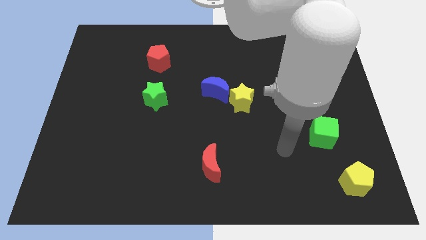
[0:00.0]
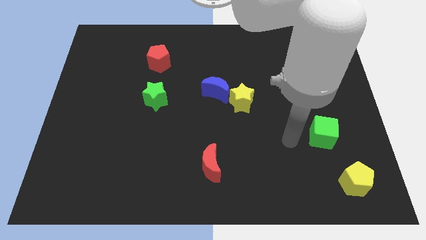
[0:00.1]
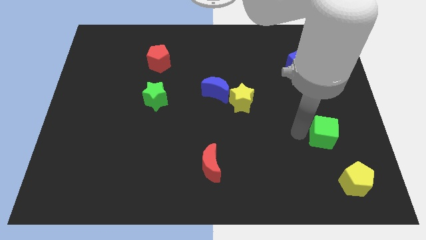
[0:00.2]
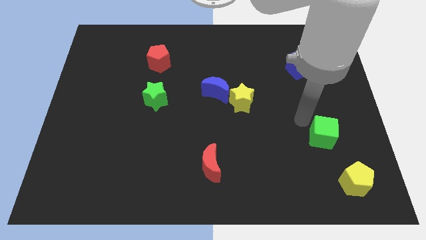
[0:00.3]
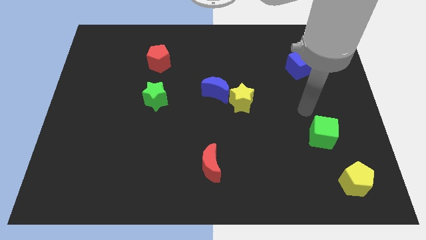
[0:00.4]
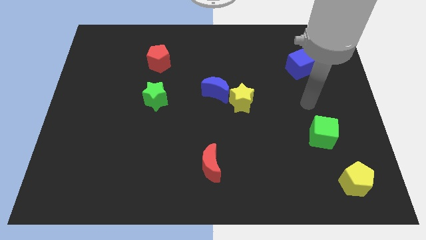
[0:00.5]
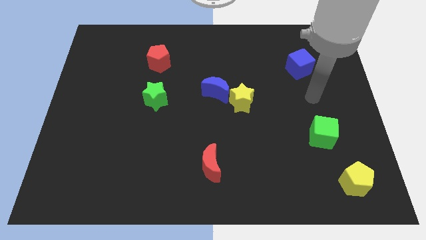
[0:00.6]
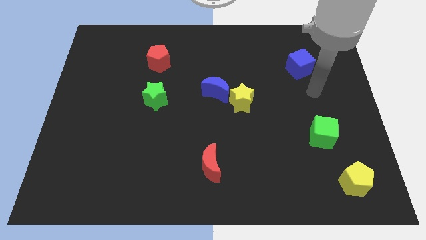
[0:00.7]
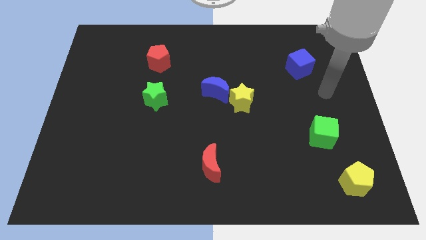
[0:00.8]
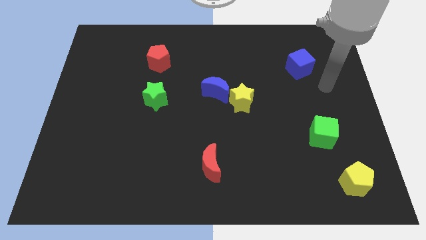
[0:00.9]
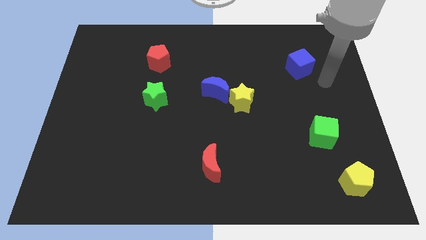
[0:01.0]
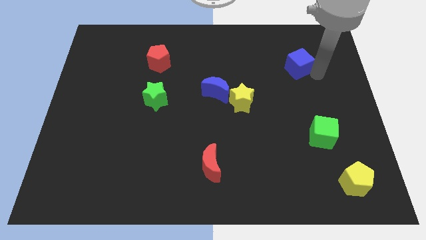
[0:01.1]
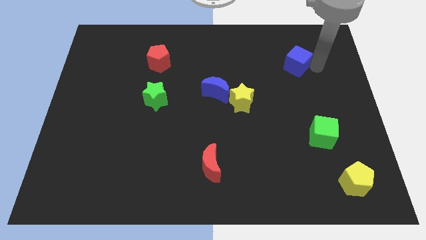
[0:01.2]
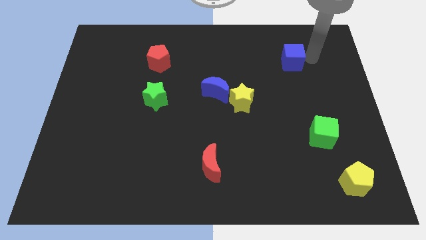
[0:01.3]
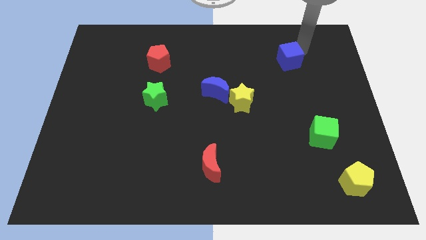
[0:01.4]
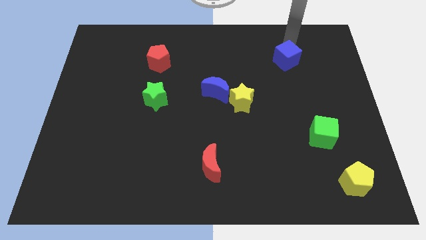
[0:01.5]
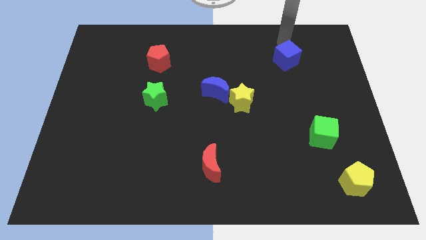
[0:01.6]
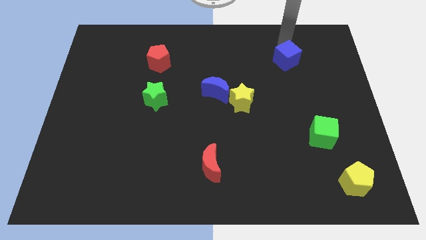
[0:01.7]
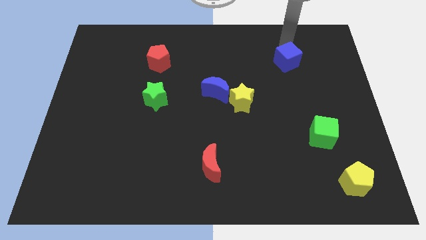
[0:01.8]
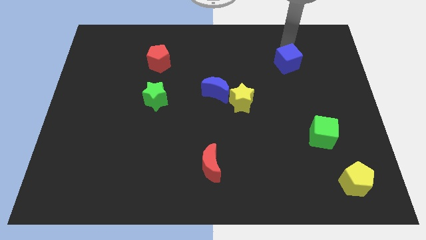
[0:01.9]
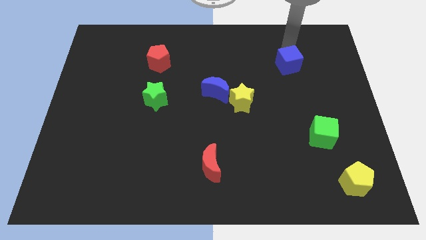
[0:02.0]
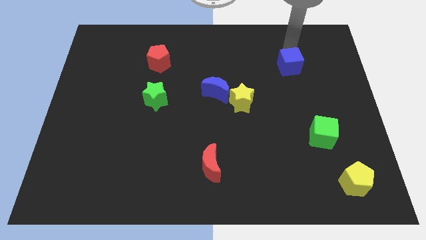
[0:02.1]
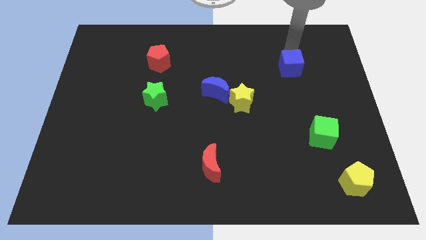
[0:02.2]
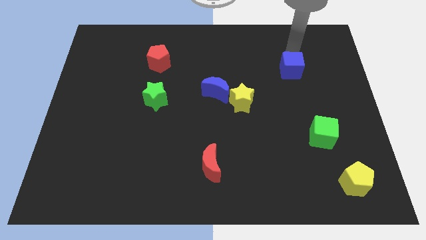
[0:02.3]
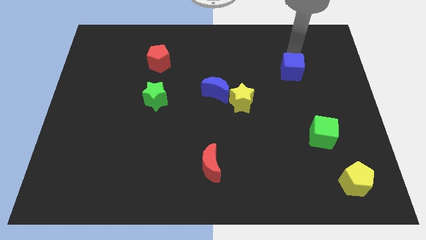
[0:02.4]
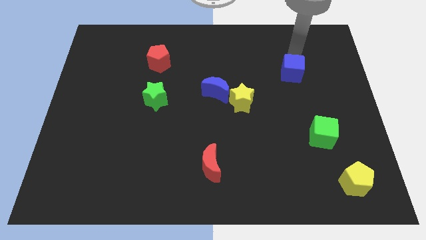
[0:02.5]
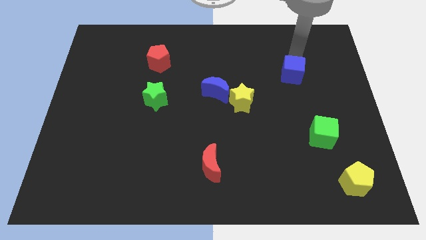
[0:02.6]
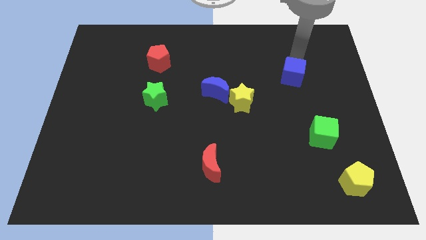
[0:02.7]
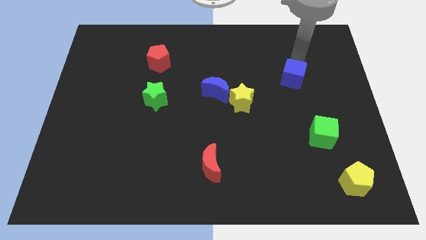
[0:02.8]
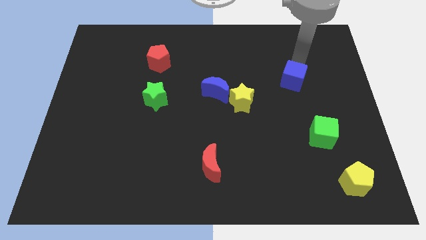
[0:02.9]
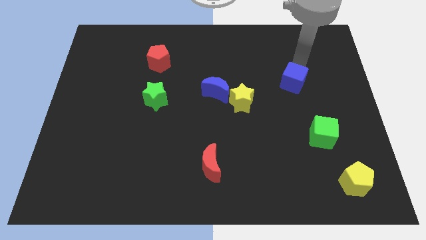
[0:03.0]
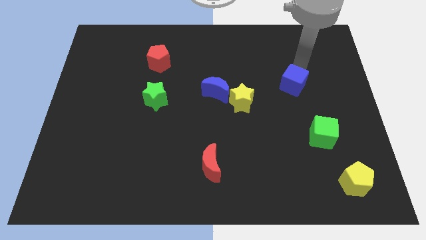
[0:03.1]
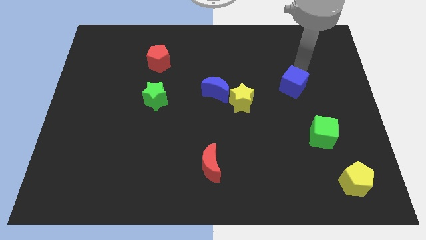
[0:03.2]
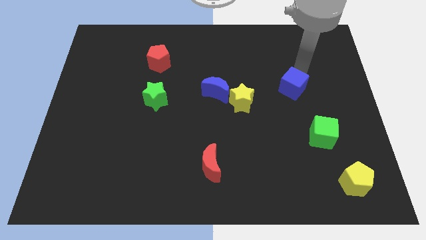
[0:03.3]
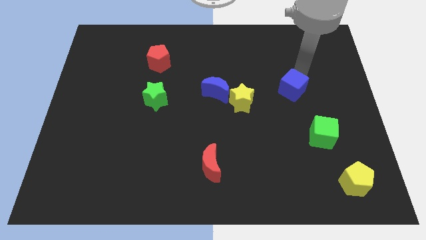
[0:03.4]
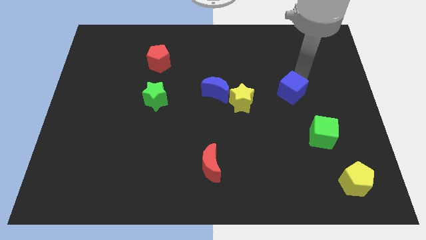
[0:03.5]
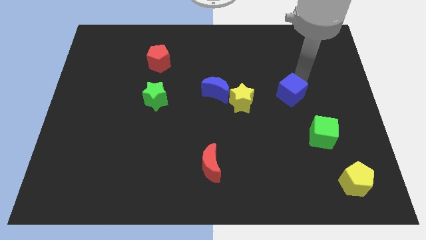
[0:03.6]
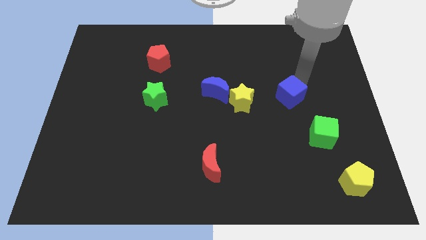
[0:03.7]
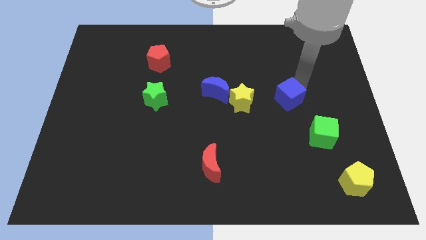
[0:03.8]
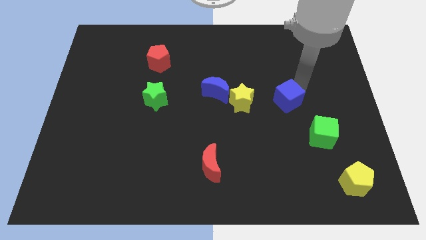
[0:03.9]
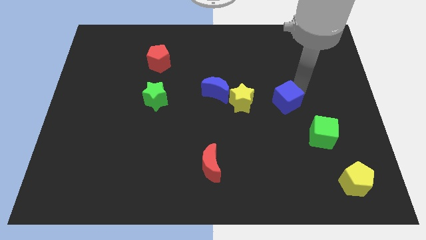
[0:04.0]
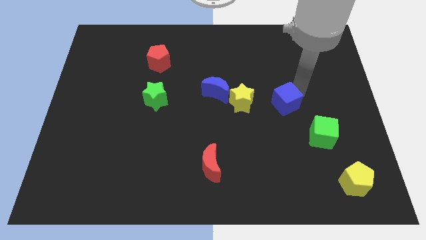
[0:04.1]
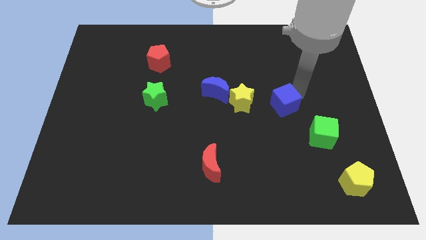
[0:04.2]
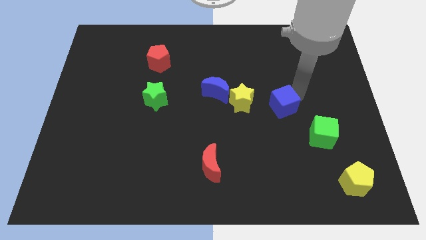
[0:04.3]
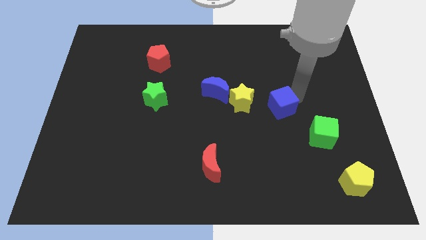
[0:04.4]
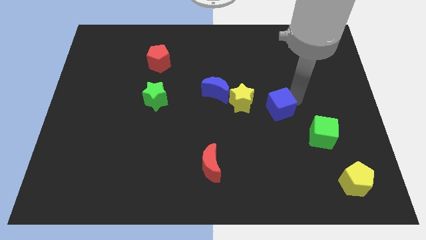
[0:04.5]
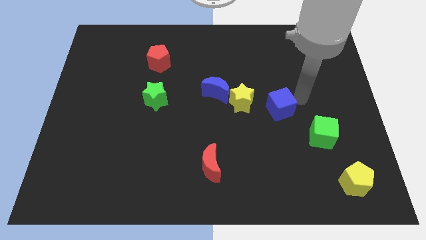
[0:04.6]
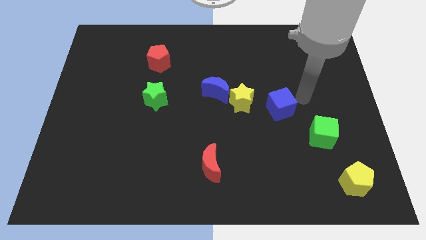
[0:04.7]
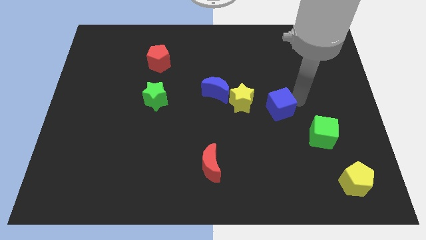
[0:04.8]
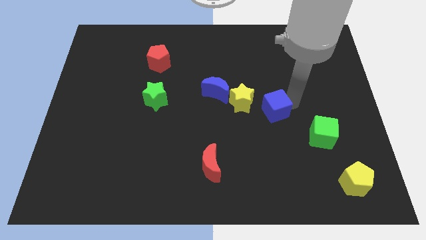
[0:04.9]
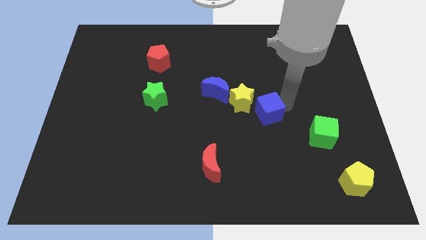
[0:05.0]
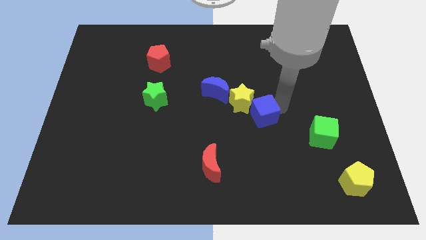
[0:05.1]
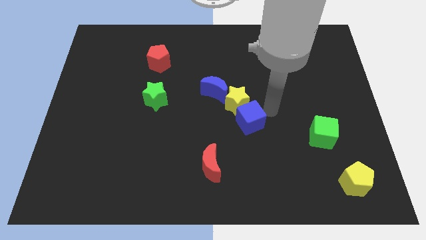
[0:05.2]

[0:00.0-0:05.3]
move the blue cube diagonally downwards and to the left

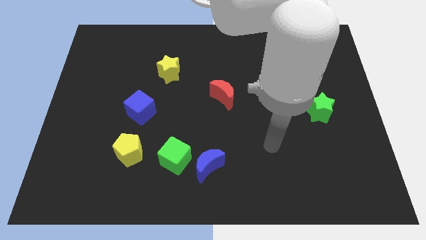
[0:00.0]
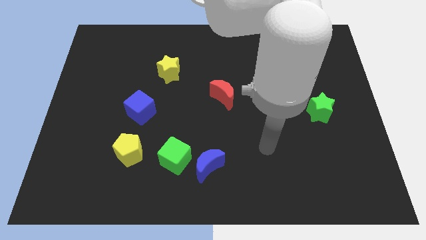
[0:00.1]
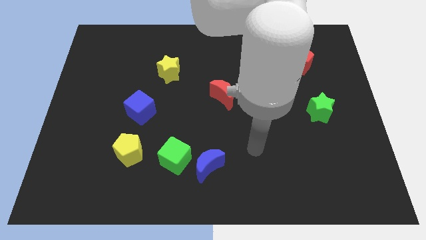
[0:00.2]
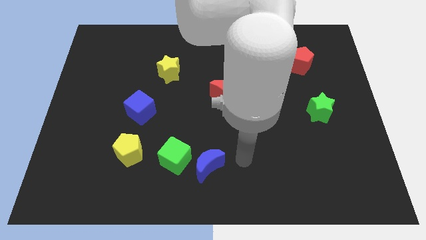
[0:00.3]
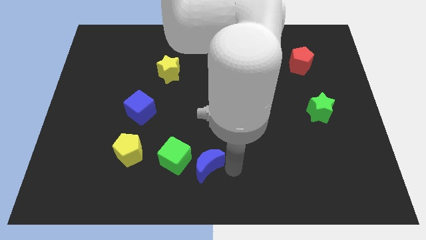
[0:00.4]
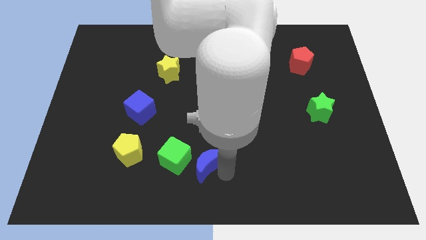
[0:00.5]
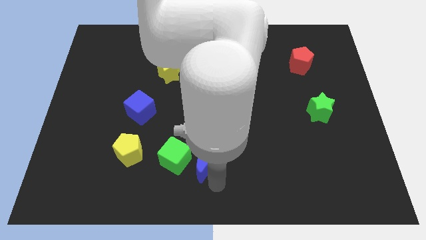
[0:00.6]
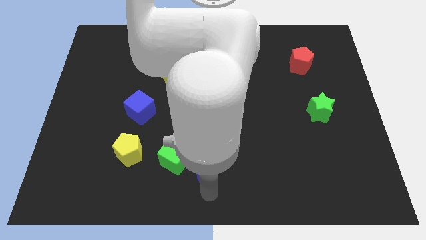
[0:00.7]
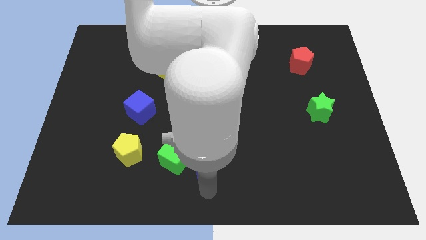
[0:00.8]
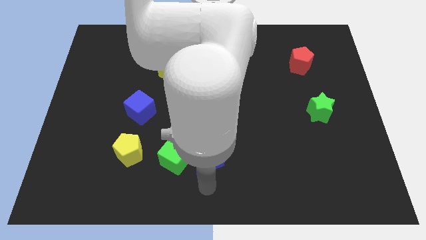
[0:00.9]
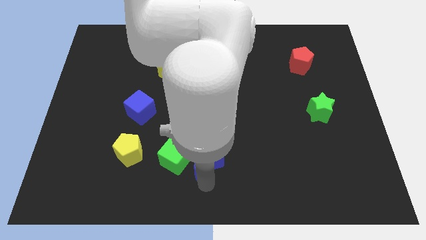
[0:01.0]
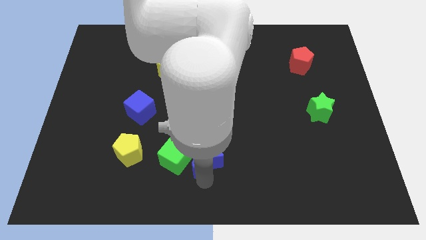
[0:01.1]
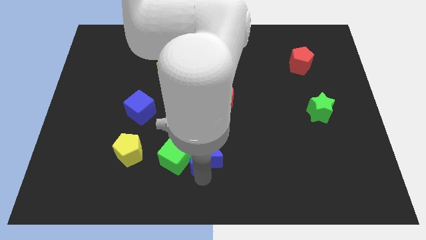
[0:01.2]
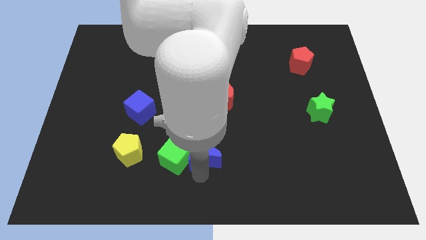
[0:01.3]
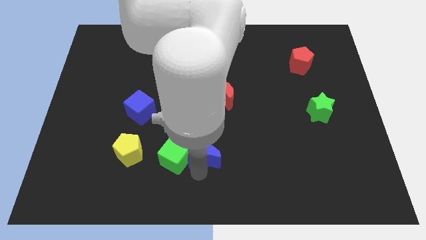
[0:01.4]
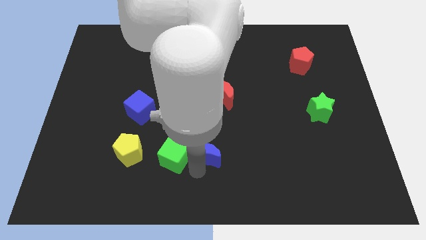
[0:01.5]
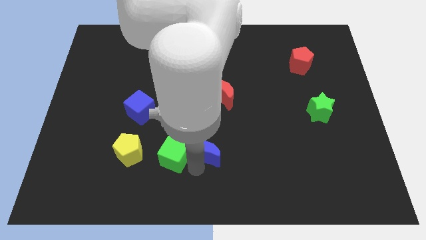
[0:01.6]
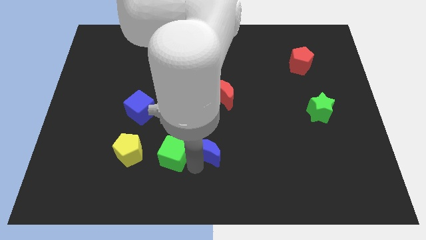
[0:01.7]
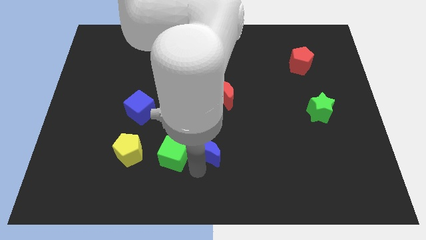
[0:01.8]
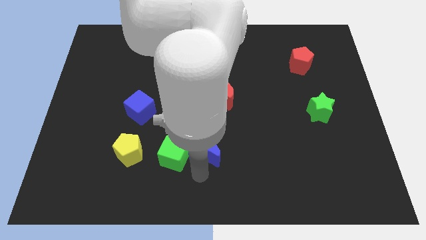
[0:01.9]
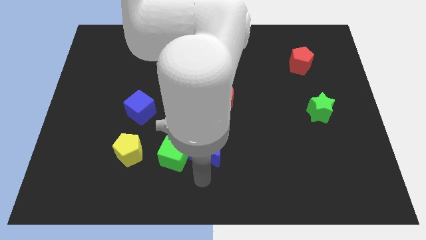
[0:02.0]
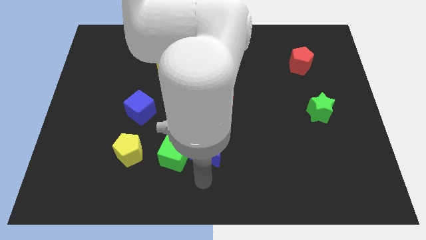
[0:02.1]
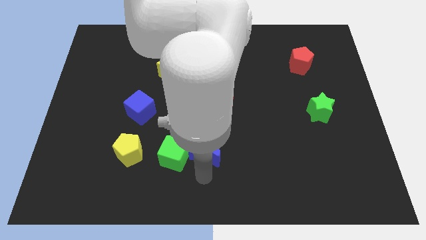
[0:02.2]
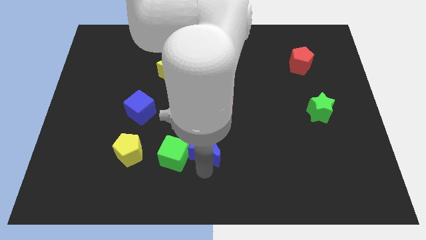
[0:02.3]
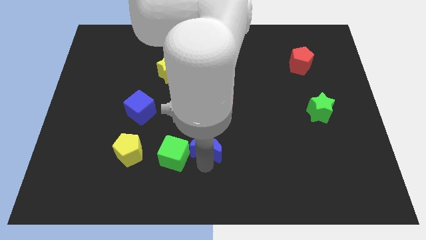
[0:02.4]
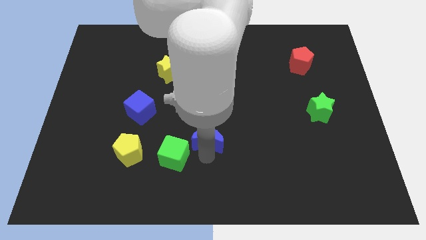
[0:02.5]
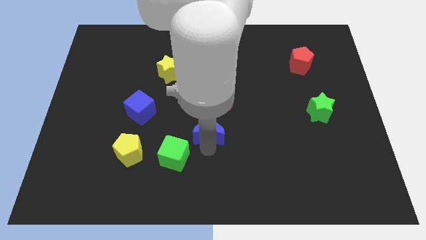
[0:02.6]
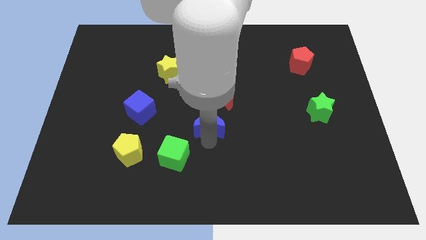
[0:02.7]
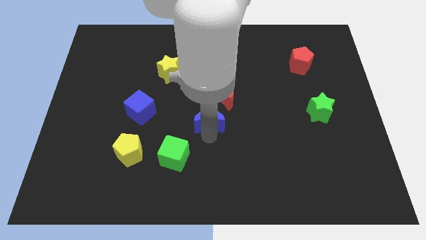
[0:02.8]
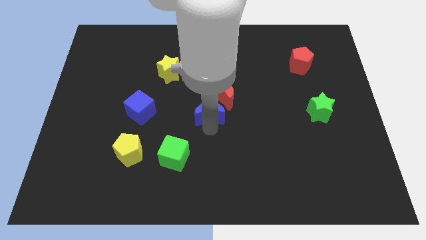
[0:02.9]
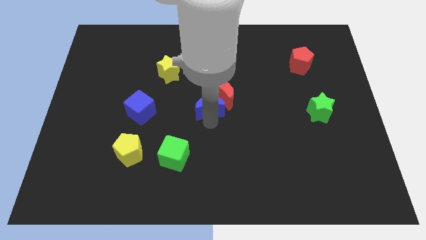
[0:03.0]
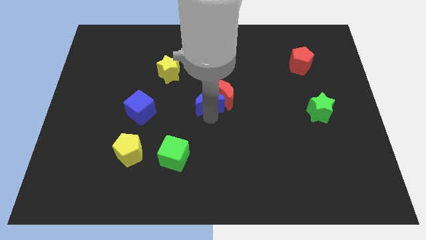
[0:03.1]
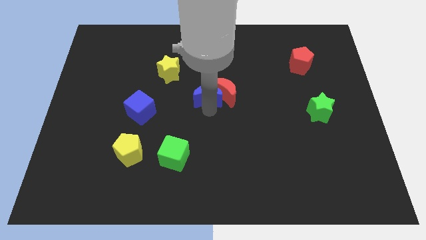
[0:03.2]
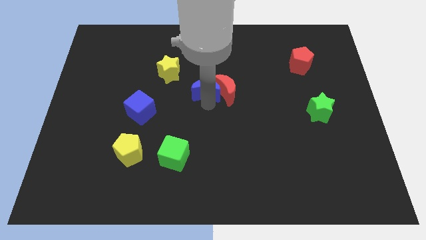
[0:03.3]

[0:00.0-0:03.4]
slide the blue moon upwards
